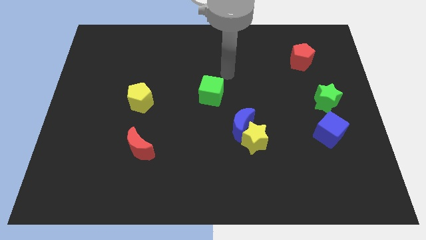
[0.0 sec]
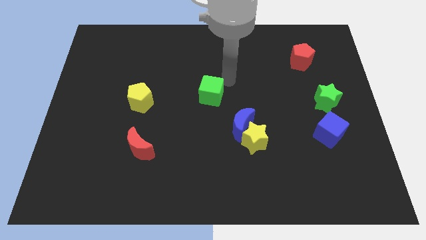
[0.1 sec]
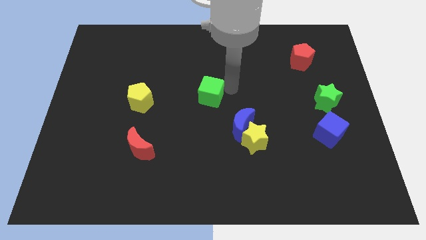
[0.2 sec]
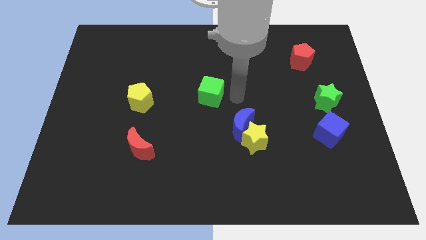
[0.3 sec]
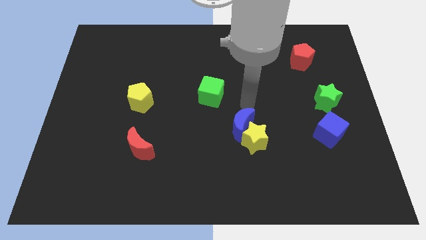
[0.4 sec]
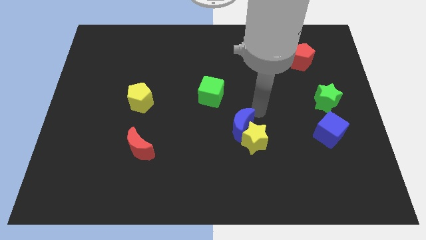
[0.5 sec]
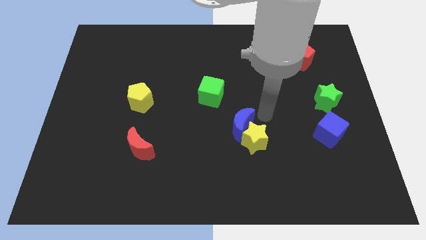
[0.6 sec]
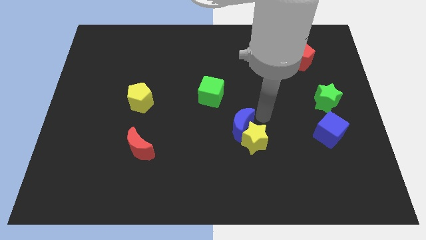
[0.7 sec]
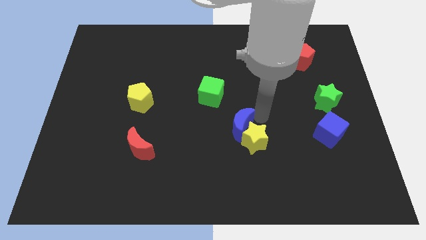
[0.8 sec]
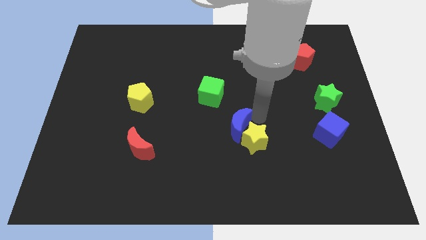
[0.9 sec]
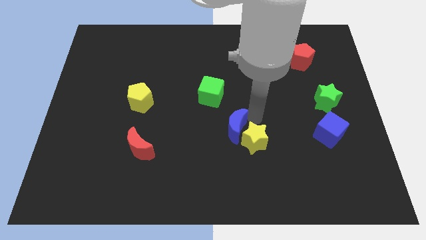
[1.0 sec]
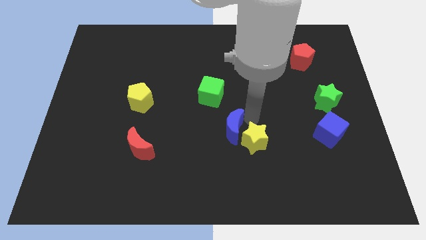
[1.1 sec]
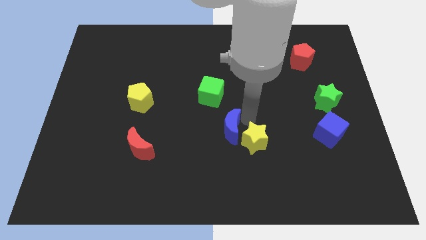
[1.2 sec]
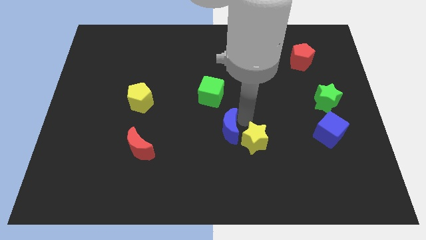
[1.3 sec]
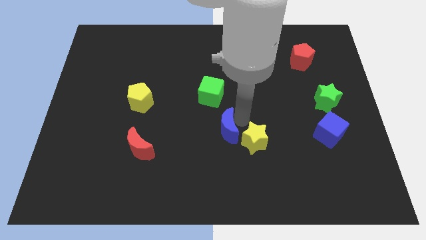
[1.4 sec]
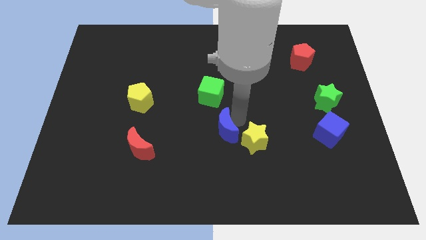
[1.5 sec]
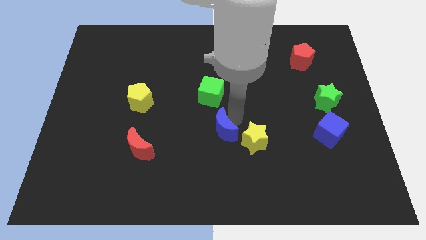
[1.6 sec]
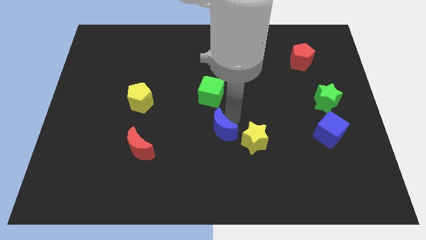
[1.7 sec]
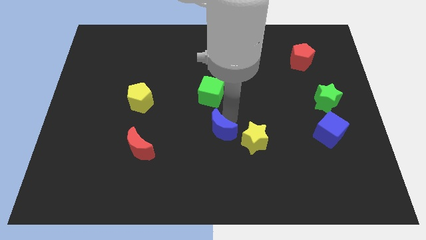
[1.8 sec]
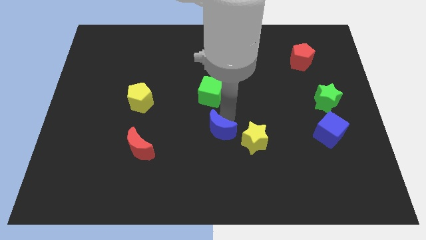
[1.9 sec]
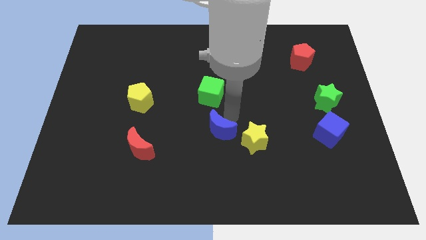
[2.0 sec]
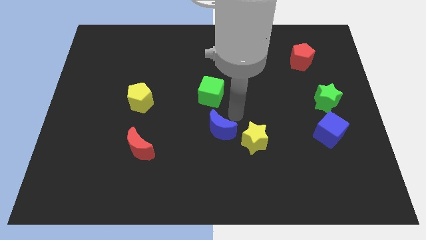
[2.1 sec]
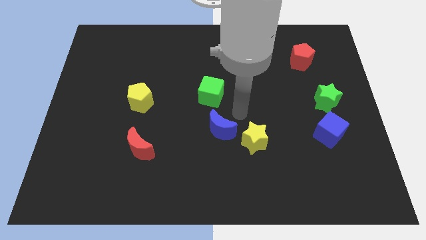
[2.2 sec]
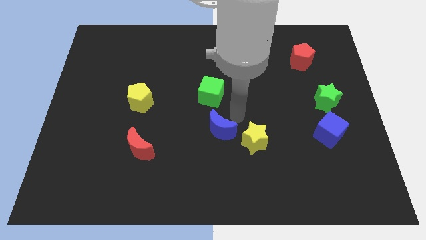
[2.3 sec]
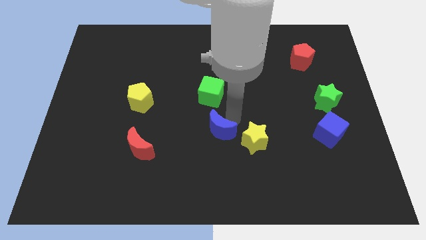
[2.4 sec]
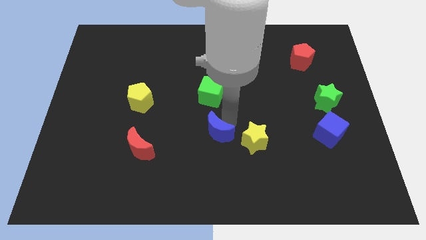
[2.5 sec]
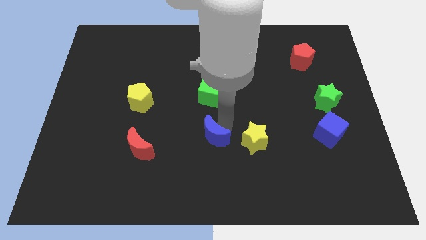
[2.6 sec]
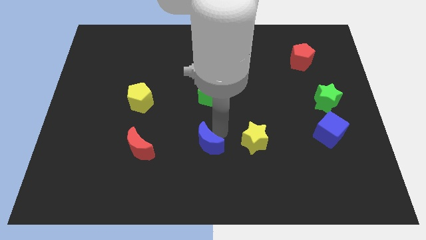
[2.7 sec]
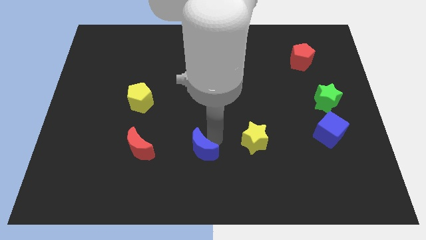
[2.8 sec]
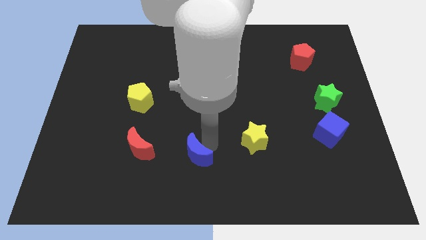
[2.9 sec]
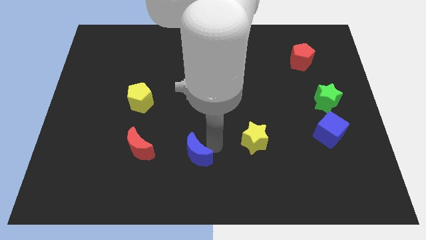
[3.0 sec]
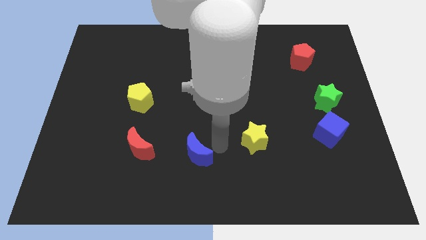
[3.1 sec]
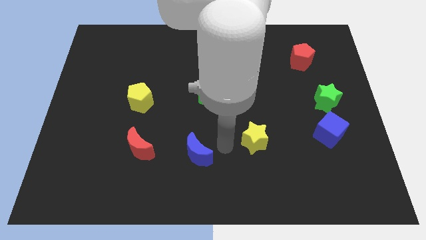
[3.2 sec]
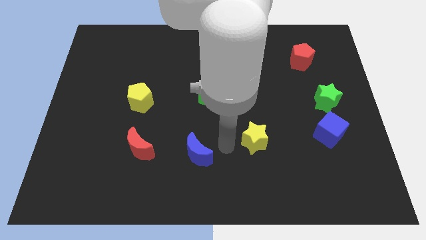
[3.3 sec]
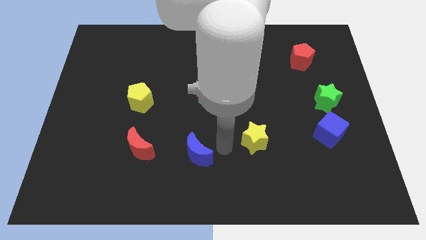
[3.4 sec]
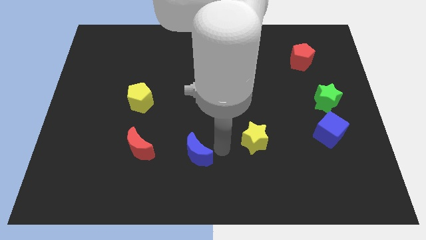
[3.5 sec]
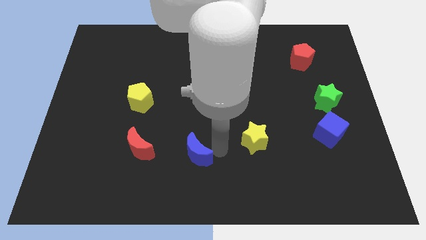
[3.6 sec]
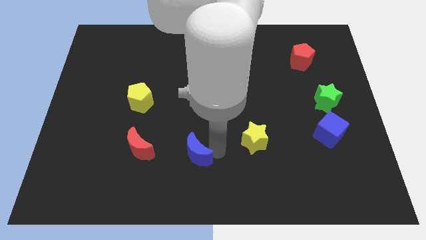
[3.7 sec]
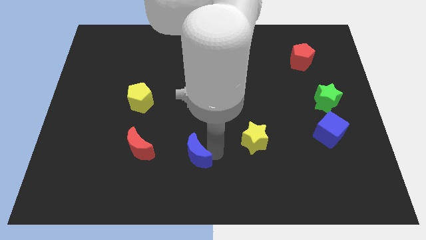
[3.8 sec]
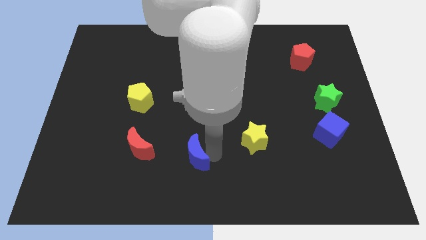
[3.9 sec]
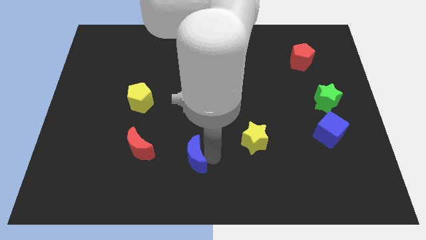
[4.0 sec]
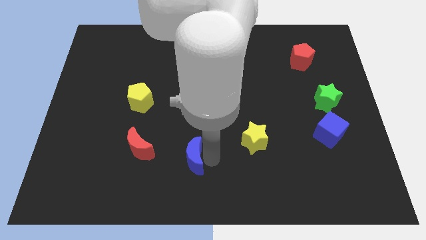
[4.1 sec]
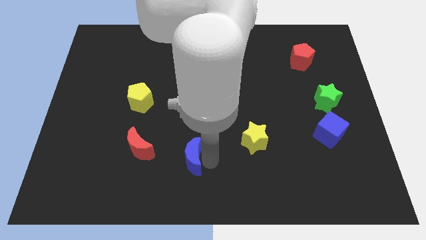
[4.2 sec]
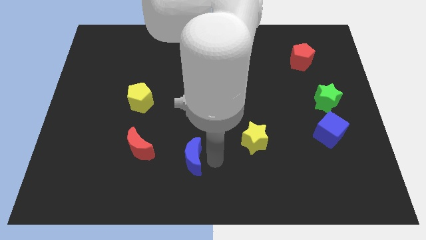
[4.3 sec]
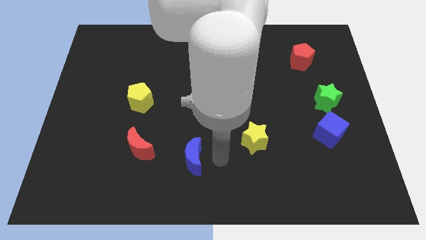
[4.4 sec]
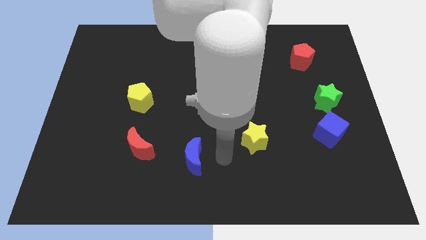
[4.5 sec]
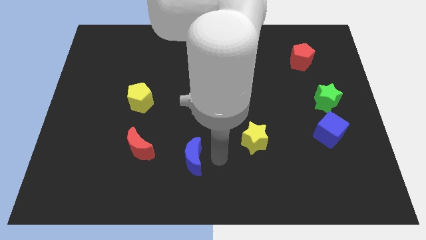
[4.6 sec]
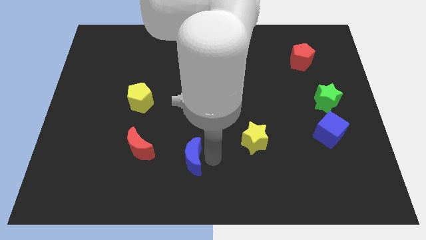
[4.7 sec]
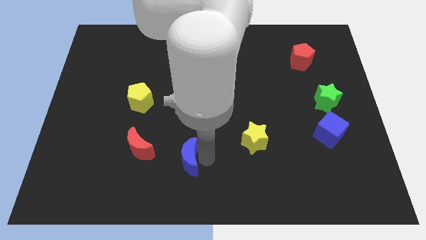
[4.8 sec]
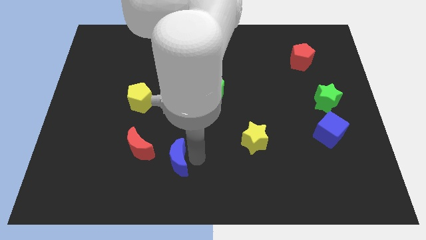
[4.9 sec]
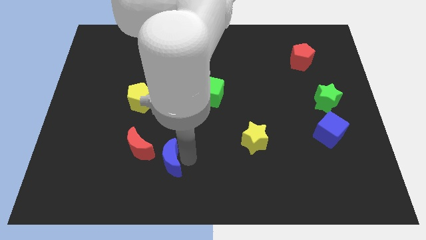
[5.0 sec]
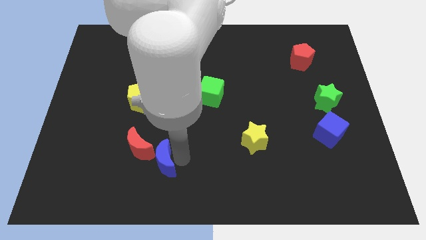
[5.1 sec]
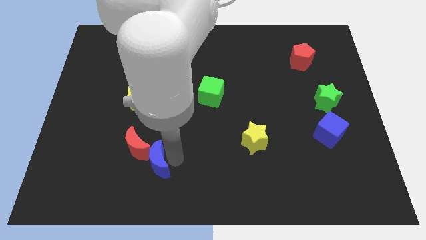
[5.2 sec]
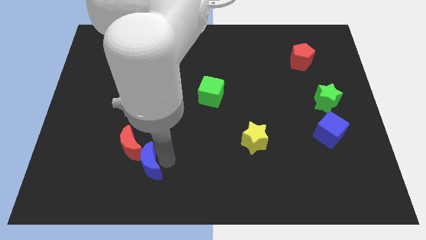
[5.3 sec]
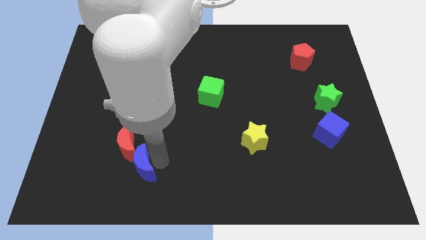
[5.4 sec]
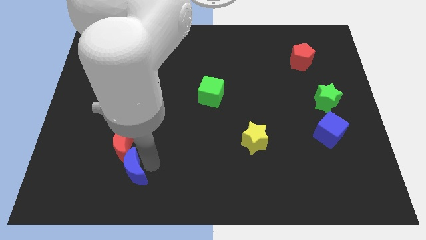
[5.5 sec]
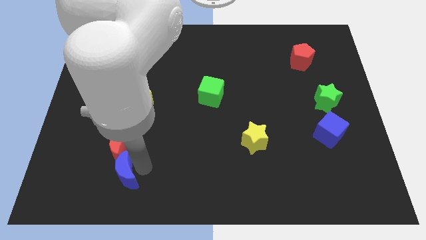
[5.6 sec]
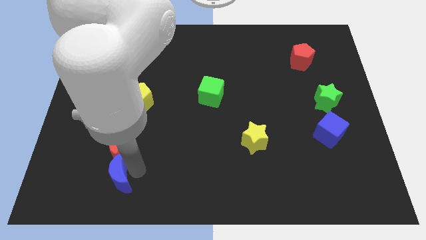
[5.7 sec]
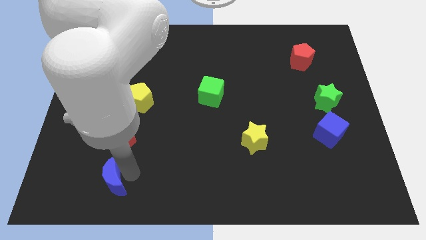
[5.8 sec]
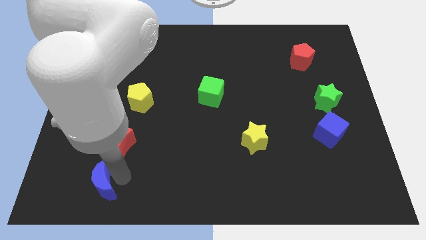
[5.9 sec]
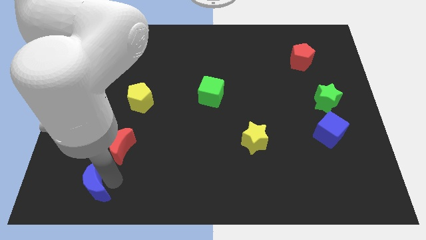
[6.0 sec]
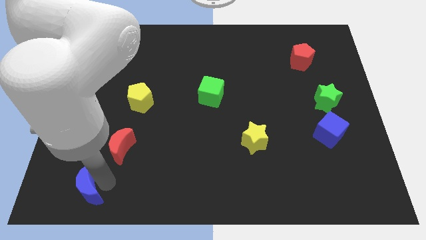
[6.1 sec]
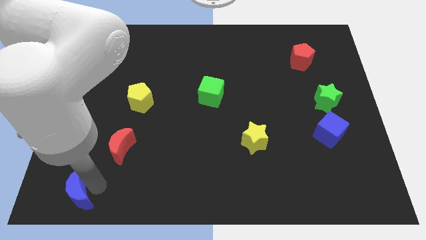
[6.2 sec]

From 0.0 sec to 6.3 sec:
slide the blue moon to the bottom left corner

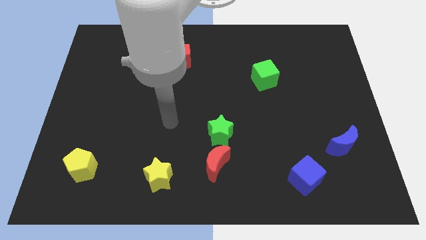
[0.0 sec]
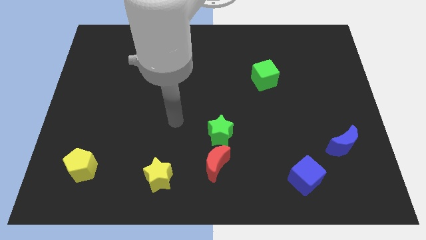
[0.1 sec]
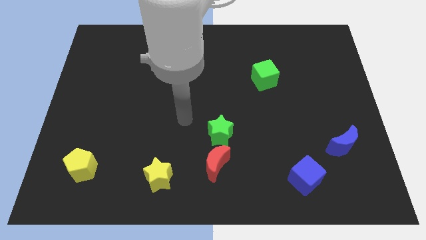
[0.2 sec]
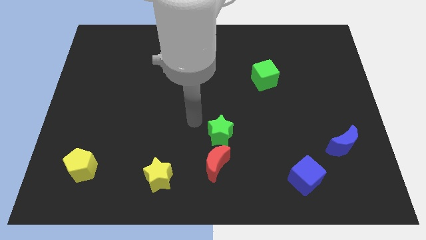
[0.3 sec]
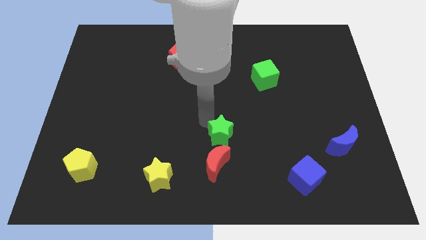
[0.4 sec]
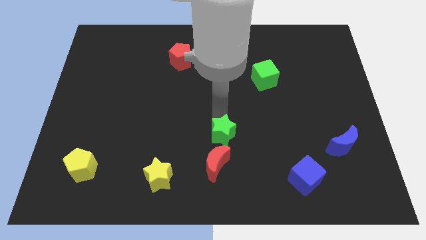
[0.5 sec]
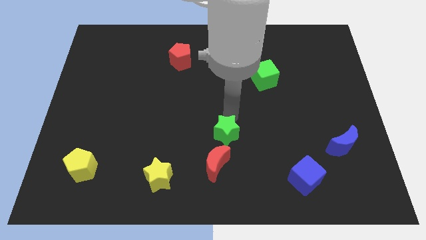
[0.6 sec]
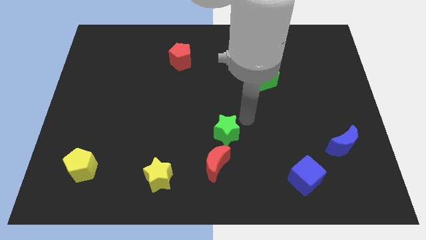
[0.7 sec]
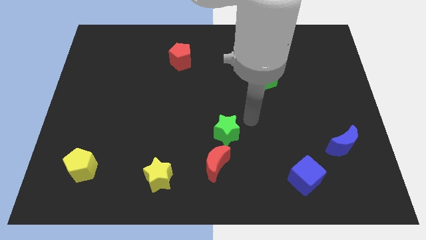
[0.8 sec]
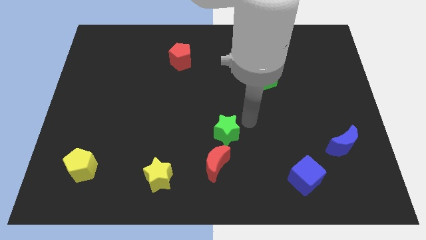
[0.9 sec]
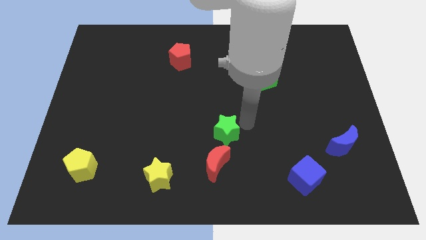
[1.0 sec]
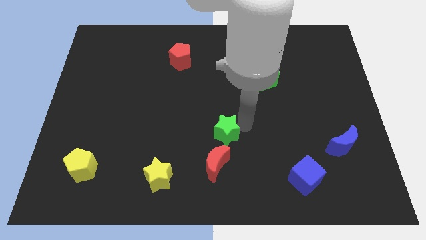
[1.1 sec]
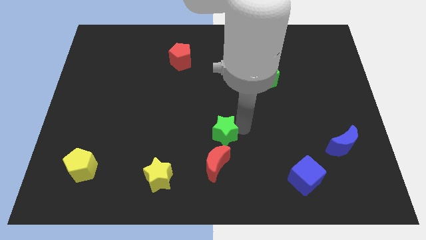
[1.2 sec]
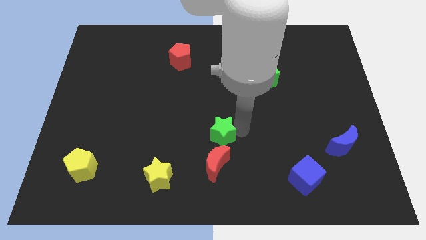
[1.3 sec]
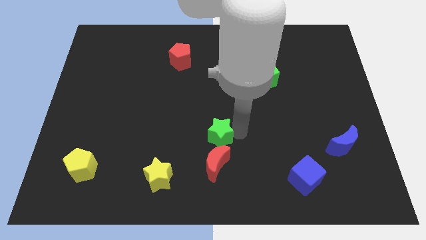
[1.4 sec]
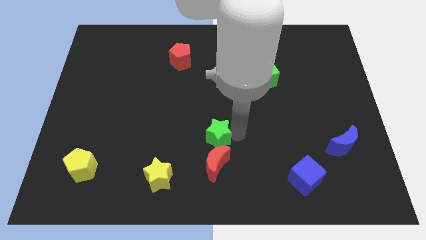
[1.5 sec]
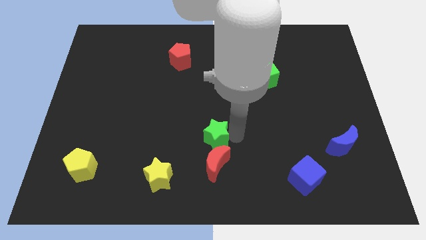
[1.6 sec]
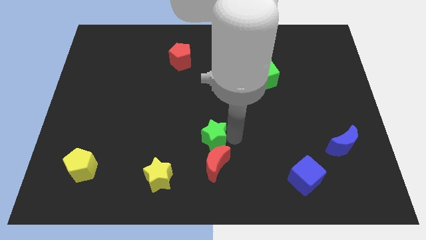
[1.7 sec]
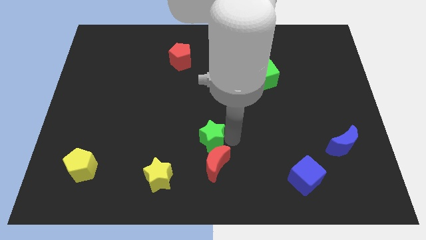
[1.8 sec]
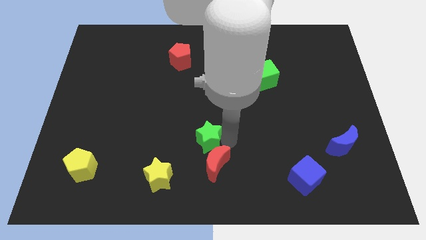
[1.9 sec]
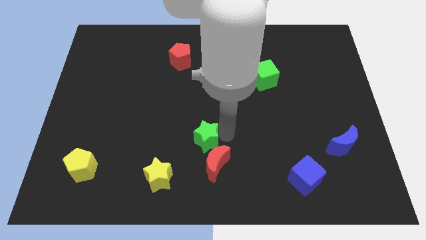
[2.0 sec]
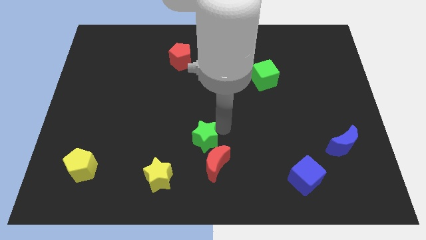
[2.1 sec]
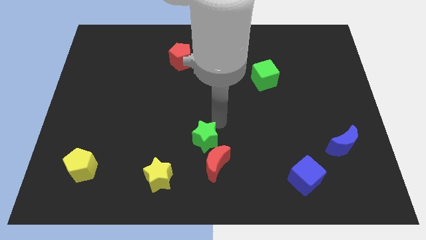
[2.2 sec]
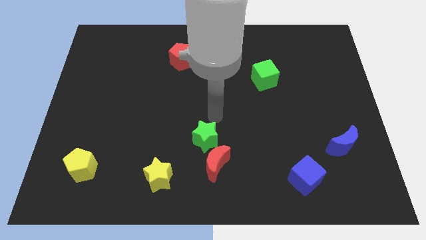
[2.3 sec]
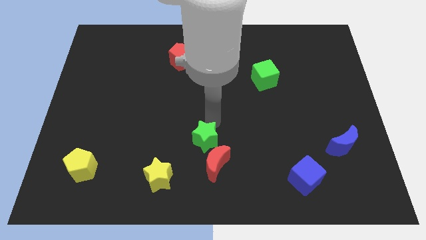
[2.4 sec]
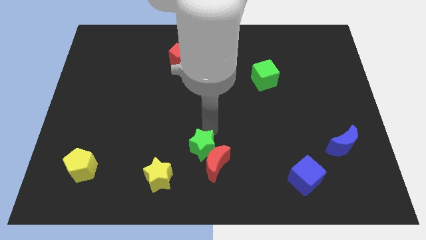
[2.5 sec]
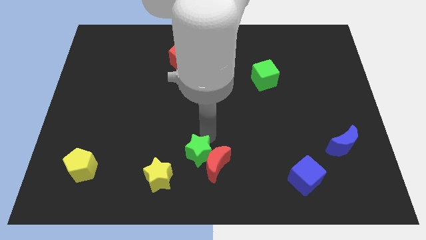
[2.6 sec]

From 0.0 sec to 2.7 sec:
push the green star to the bottom side
